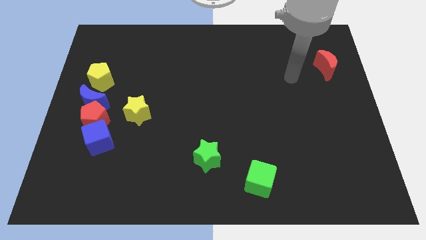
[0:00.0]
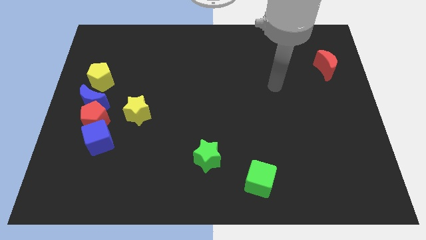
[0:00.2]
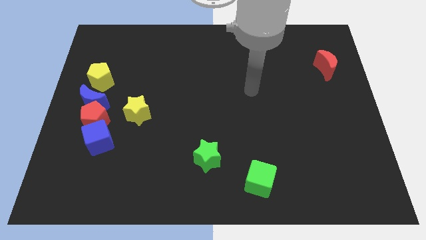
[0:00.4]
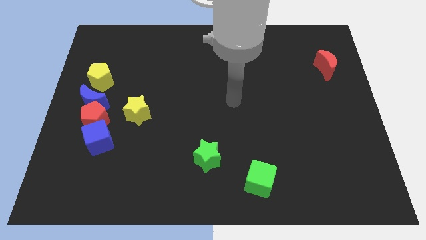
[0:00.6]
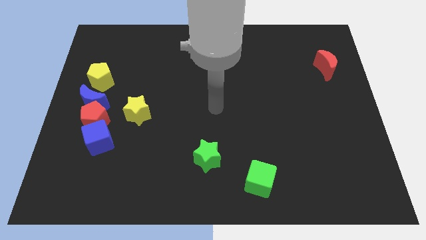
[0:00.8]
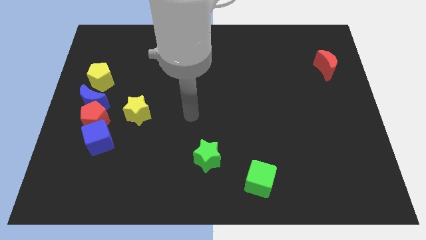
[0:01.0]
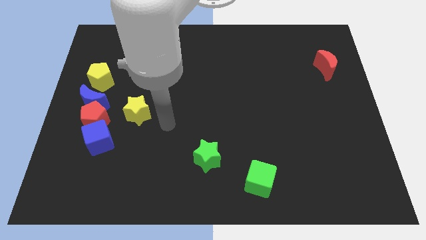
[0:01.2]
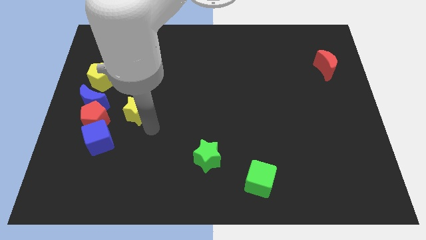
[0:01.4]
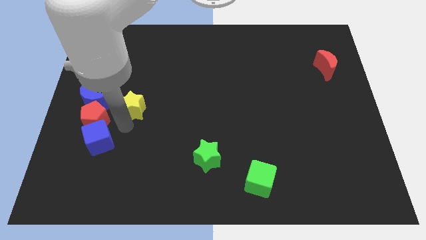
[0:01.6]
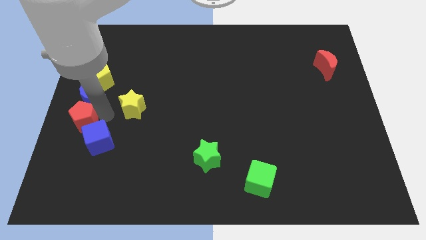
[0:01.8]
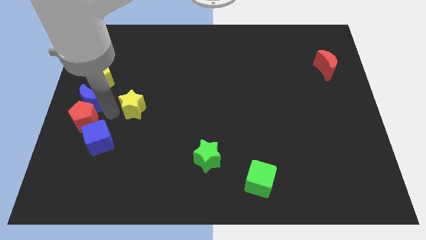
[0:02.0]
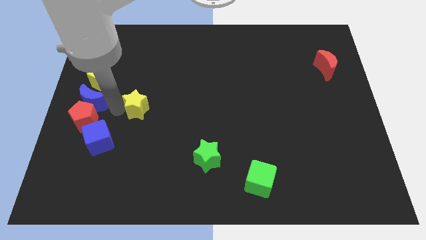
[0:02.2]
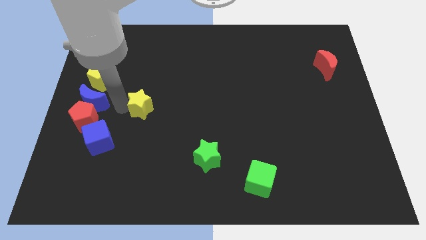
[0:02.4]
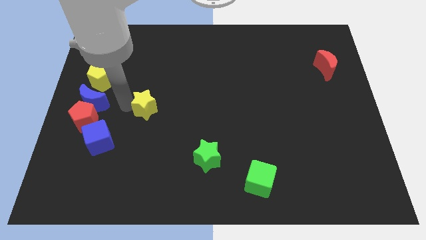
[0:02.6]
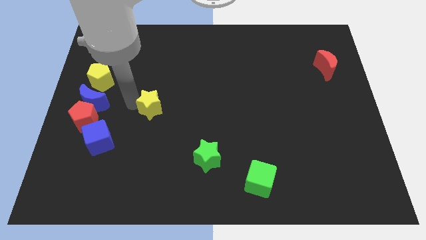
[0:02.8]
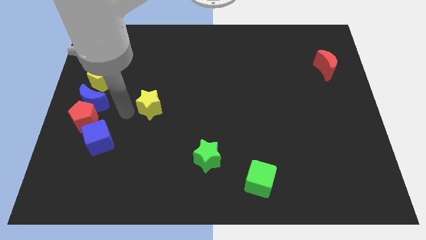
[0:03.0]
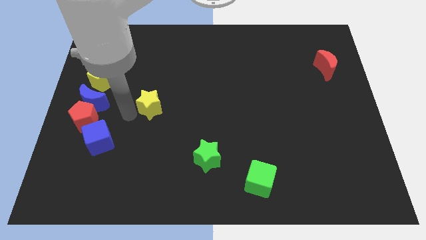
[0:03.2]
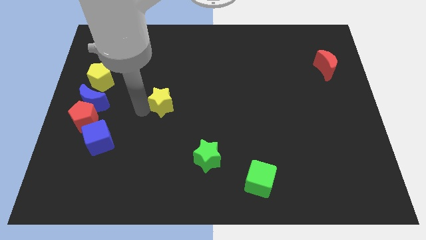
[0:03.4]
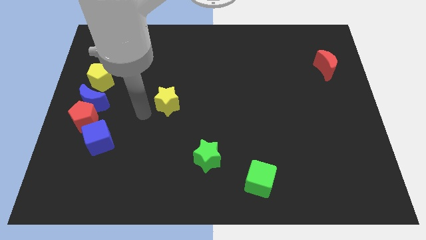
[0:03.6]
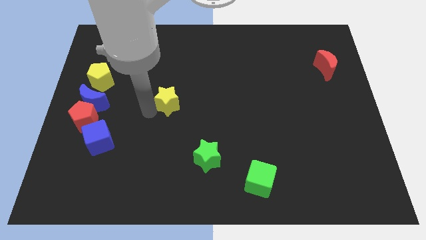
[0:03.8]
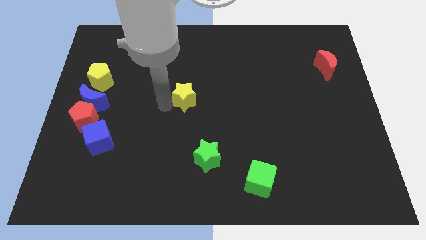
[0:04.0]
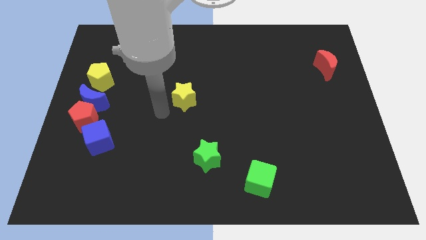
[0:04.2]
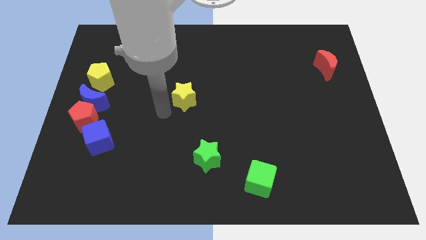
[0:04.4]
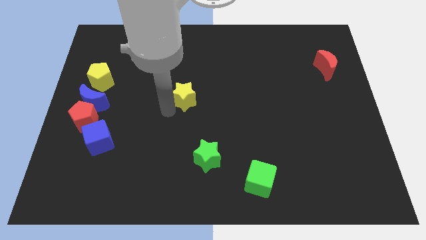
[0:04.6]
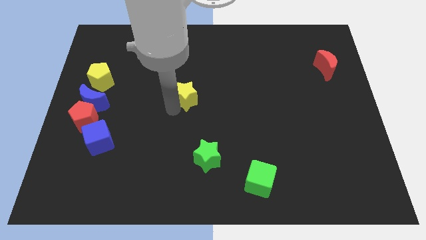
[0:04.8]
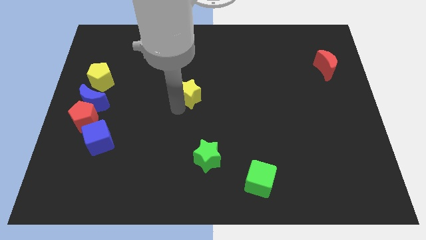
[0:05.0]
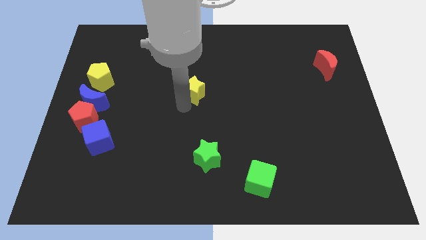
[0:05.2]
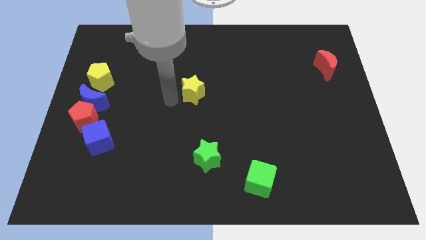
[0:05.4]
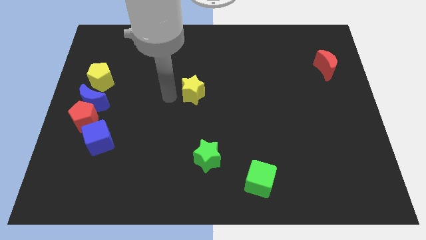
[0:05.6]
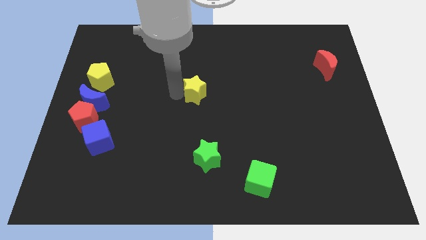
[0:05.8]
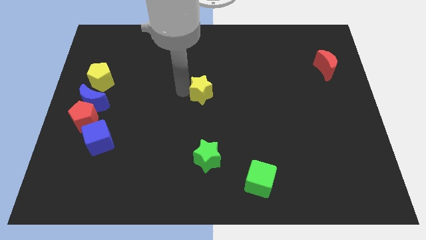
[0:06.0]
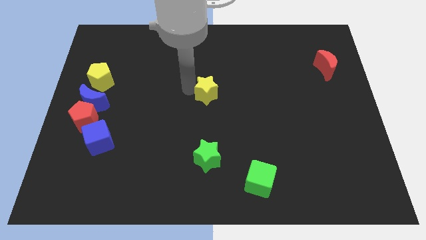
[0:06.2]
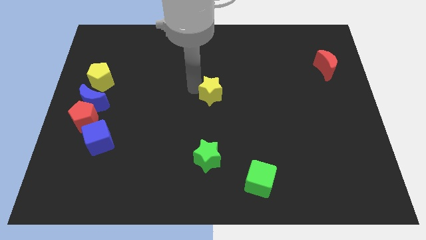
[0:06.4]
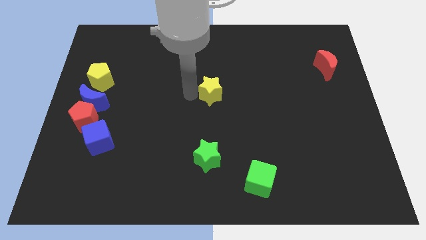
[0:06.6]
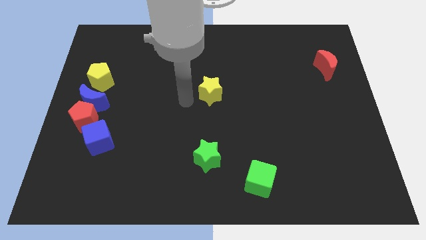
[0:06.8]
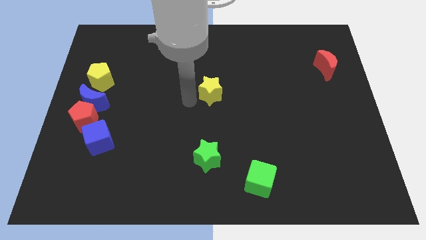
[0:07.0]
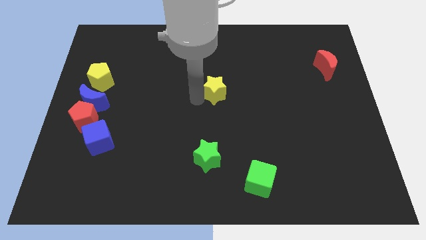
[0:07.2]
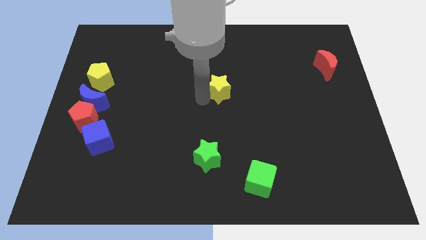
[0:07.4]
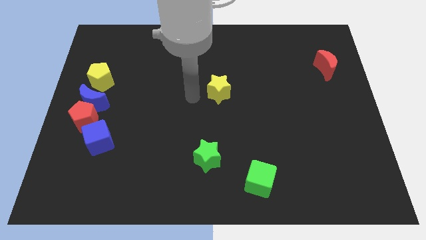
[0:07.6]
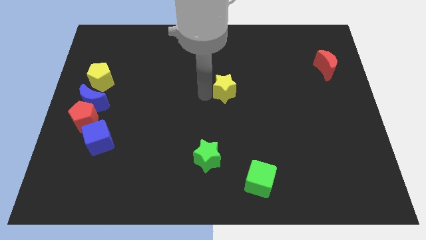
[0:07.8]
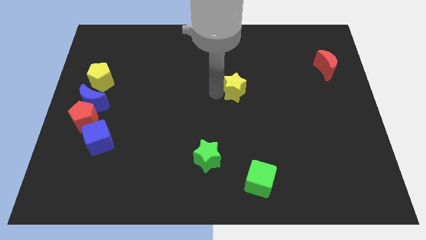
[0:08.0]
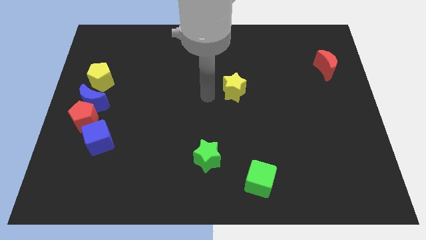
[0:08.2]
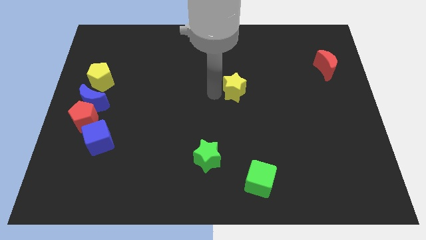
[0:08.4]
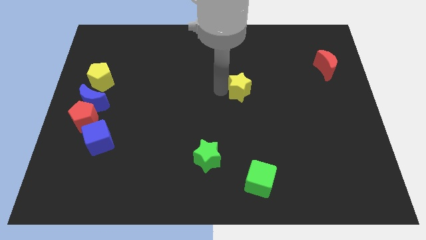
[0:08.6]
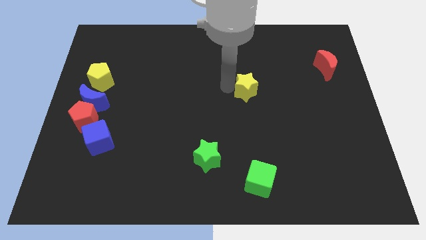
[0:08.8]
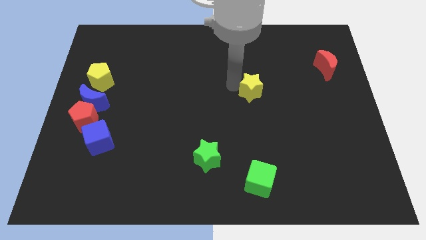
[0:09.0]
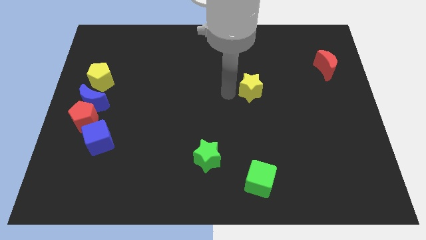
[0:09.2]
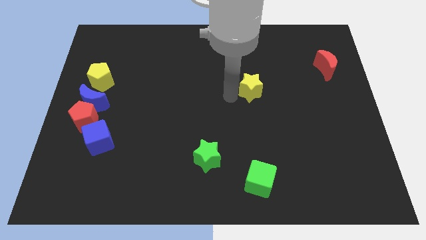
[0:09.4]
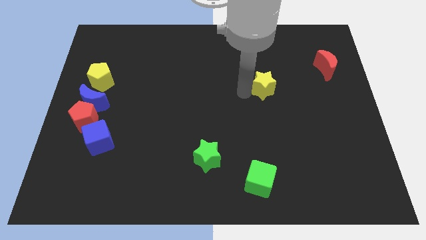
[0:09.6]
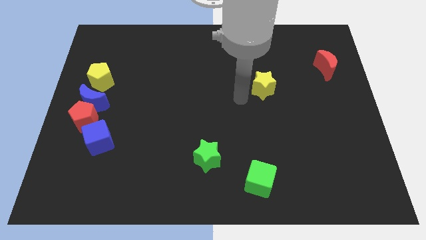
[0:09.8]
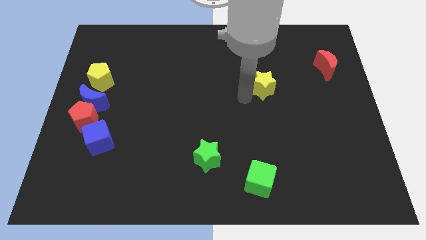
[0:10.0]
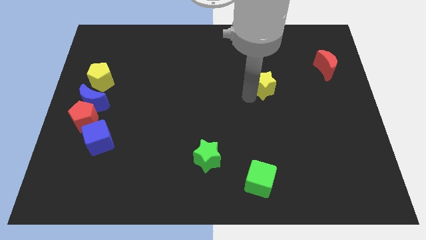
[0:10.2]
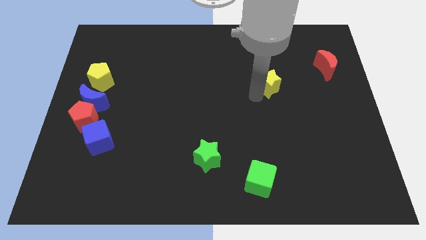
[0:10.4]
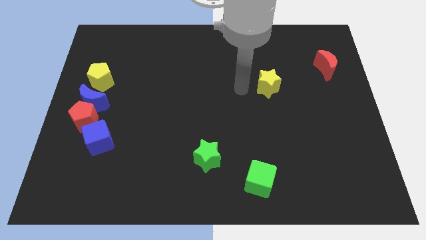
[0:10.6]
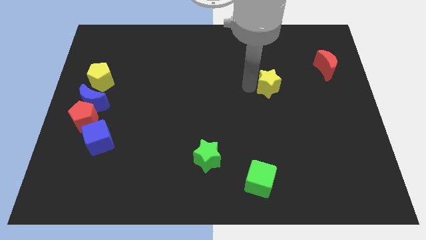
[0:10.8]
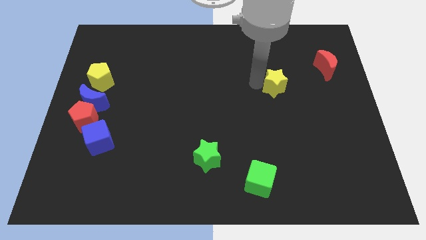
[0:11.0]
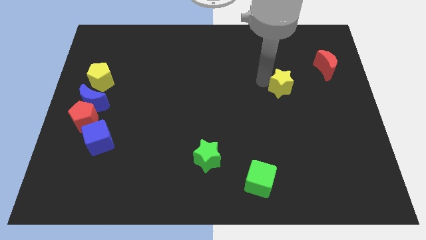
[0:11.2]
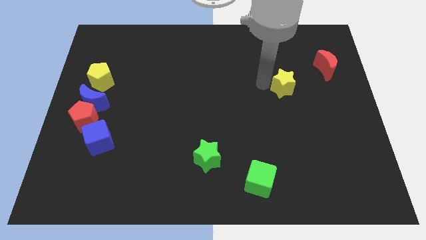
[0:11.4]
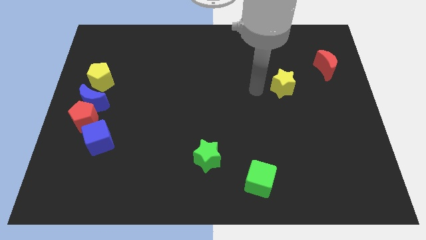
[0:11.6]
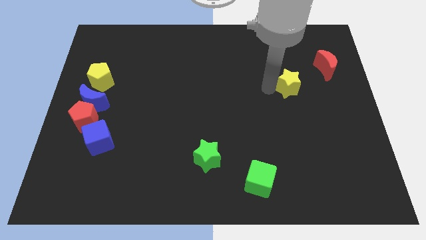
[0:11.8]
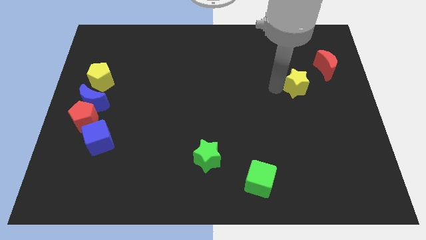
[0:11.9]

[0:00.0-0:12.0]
slide the yellow star to the bottom left side of the red moon
